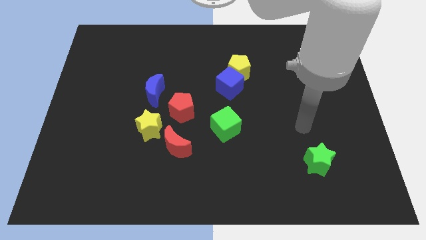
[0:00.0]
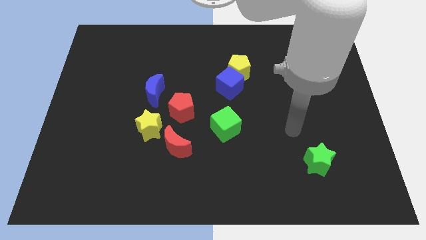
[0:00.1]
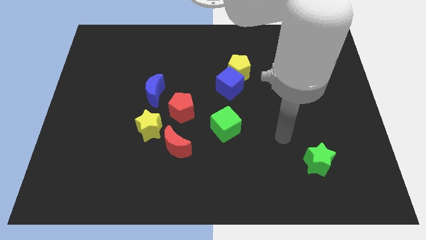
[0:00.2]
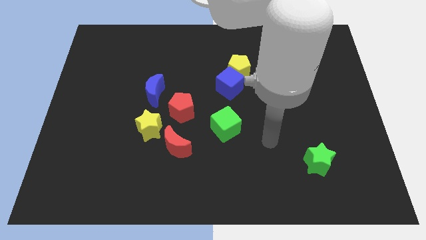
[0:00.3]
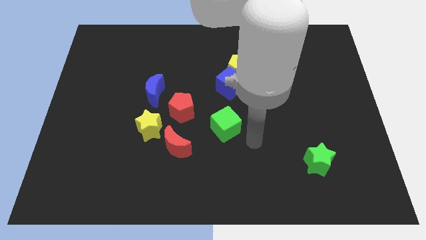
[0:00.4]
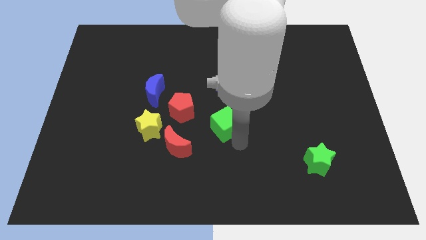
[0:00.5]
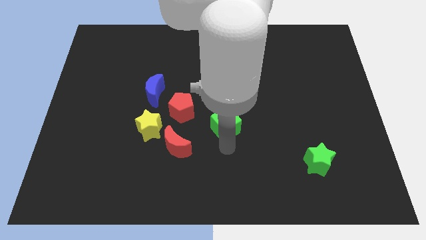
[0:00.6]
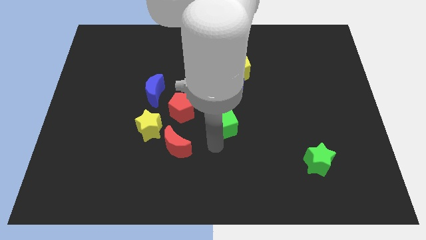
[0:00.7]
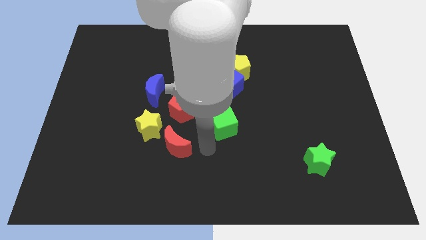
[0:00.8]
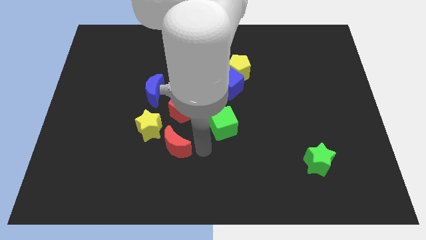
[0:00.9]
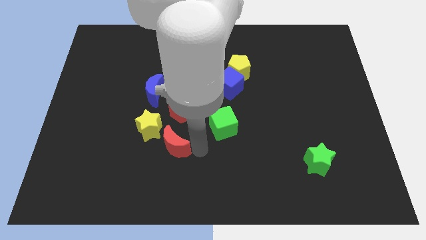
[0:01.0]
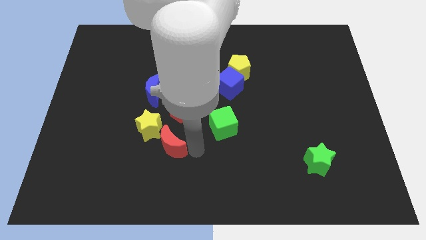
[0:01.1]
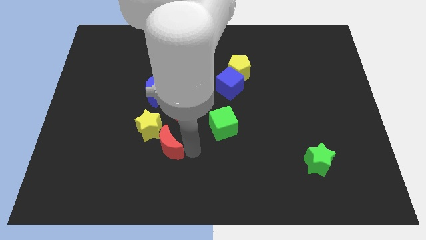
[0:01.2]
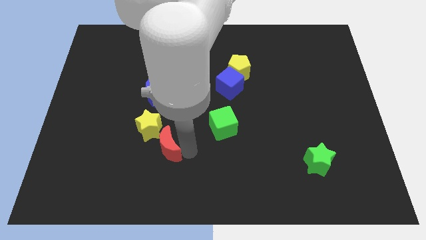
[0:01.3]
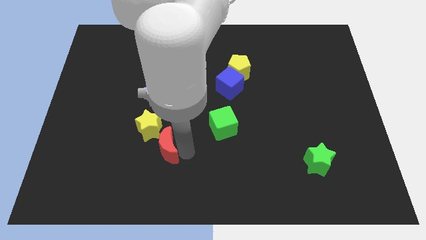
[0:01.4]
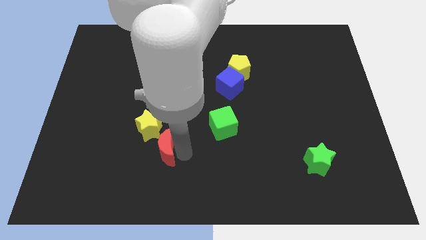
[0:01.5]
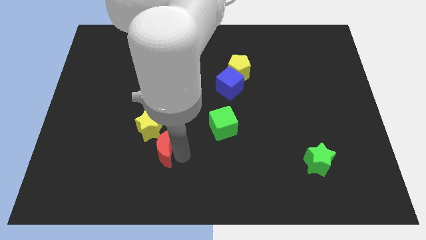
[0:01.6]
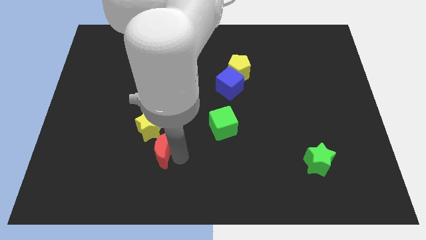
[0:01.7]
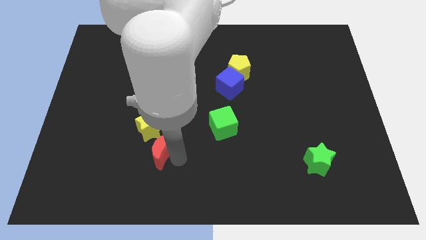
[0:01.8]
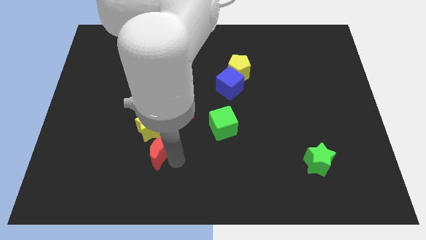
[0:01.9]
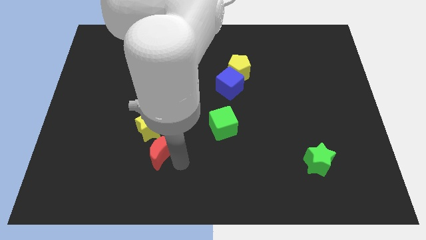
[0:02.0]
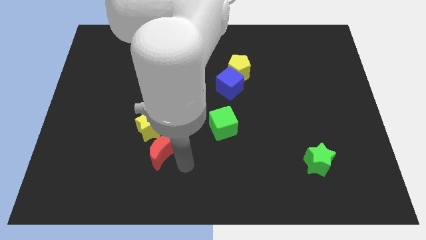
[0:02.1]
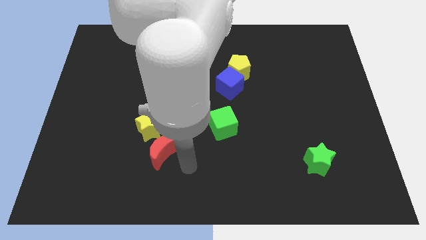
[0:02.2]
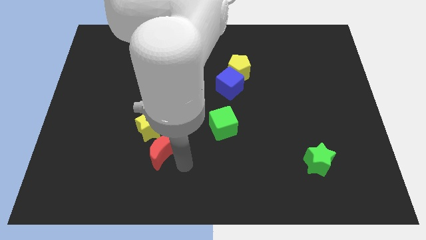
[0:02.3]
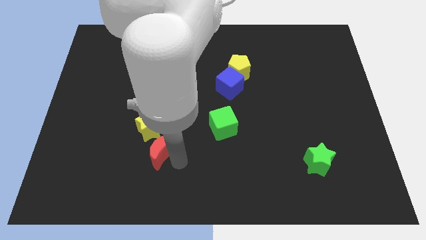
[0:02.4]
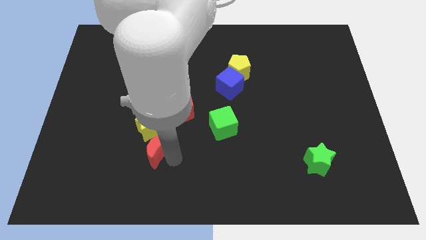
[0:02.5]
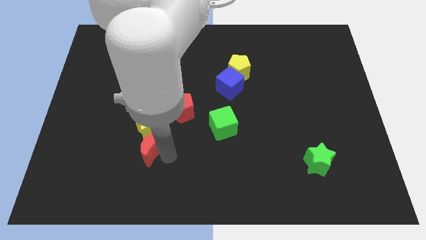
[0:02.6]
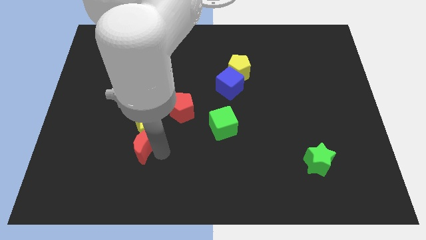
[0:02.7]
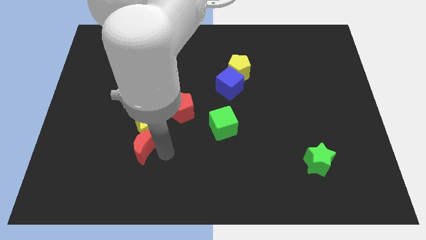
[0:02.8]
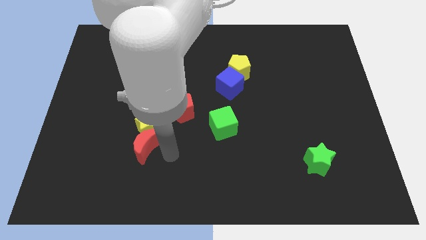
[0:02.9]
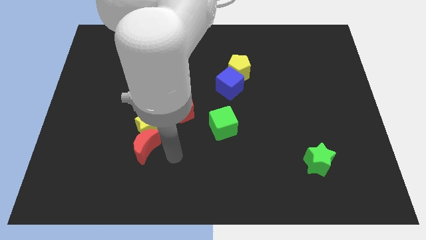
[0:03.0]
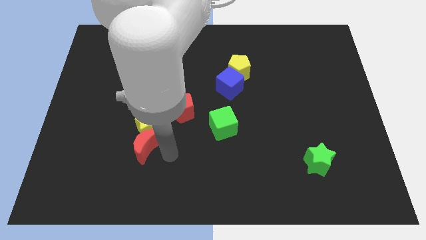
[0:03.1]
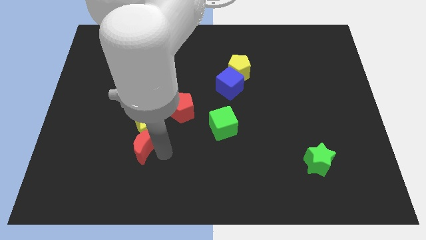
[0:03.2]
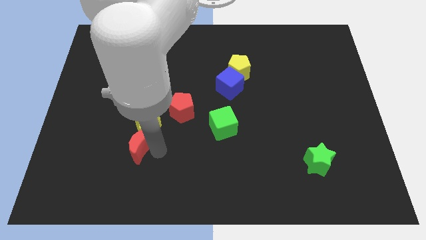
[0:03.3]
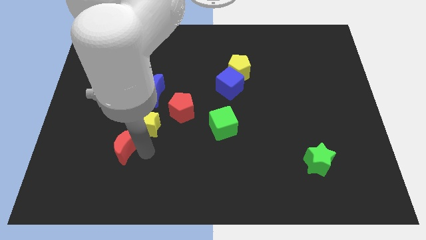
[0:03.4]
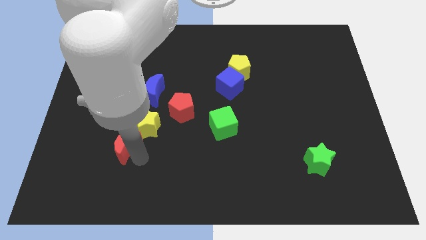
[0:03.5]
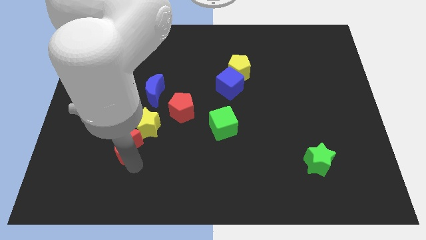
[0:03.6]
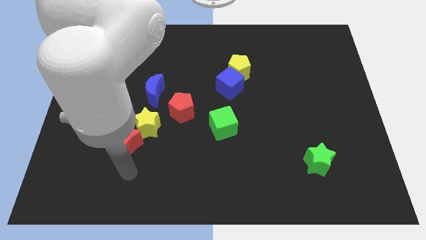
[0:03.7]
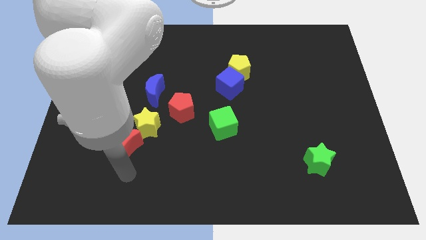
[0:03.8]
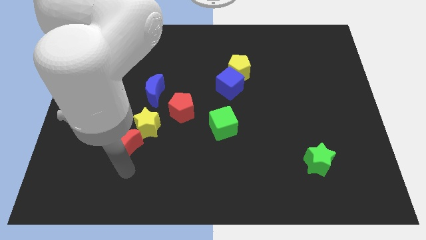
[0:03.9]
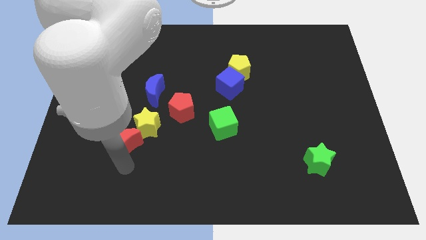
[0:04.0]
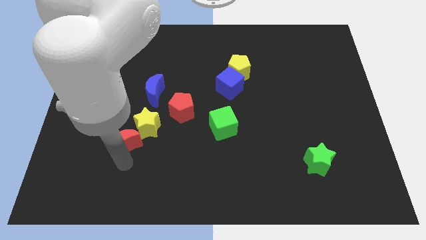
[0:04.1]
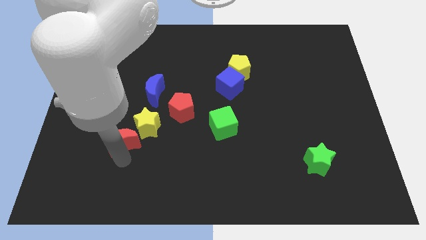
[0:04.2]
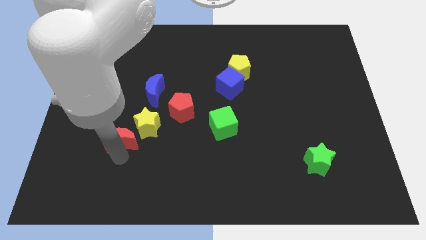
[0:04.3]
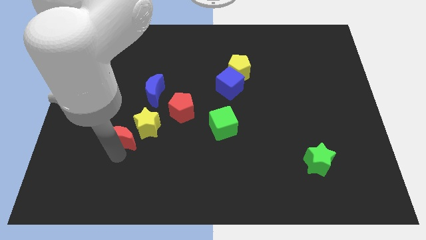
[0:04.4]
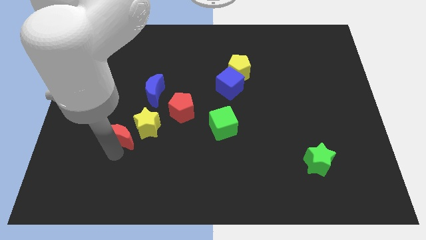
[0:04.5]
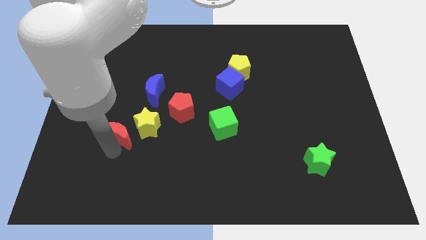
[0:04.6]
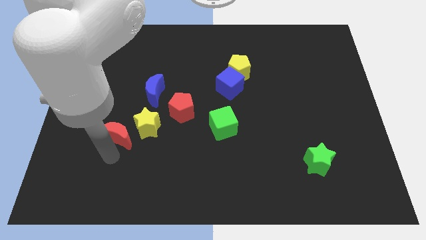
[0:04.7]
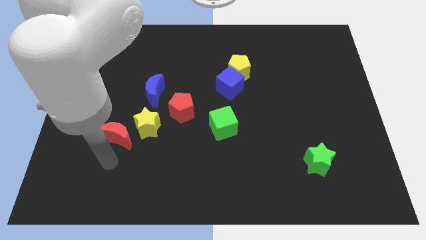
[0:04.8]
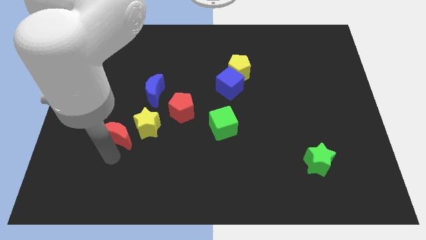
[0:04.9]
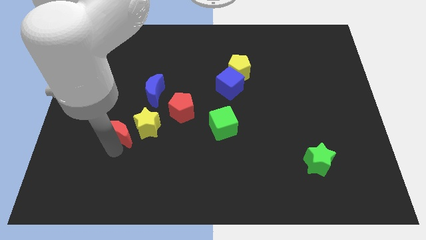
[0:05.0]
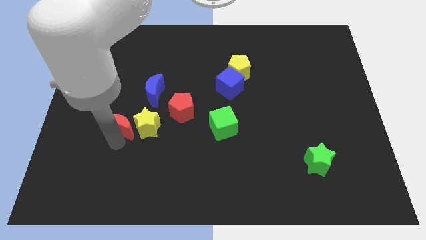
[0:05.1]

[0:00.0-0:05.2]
push the red moon diagonally down and to the left of the blue moon

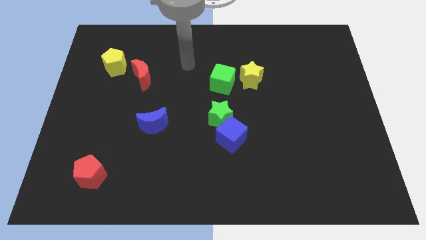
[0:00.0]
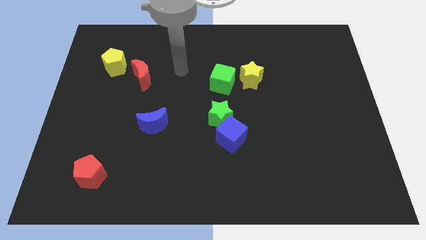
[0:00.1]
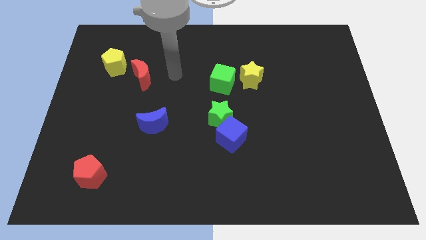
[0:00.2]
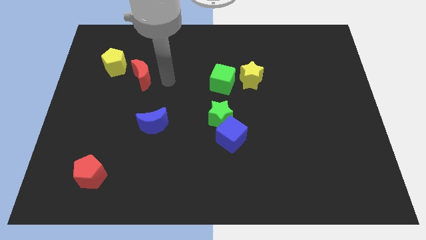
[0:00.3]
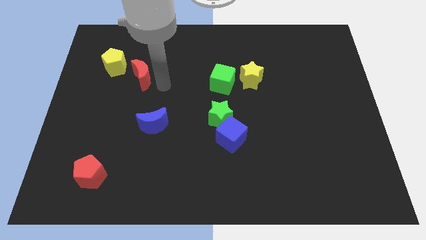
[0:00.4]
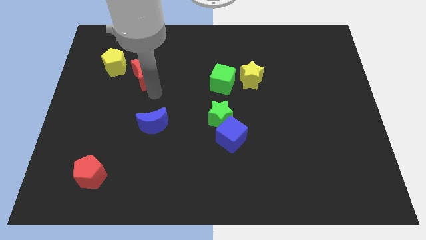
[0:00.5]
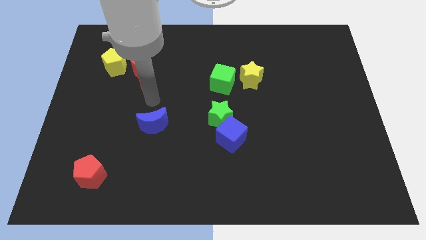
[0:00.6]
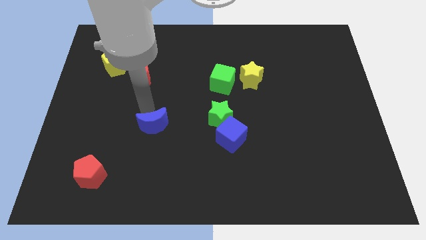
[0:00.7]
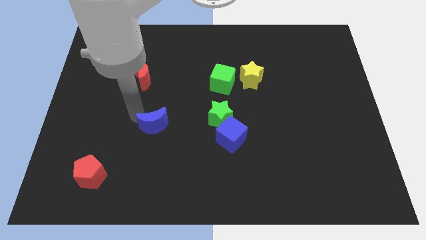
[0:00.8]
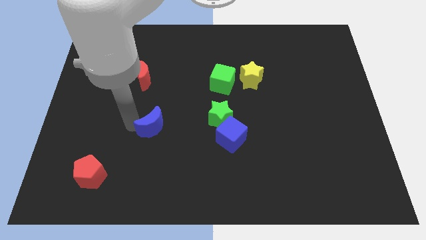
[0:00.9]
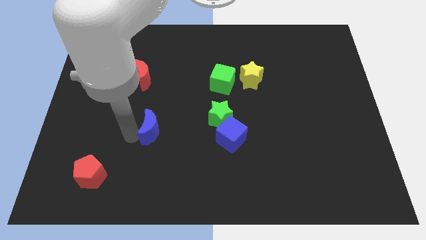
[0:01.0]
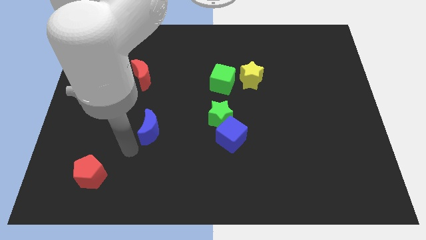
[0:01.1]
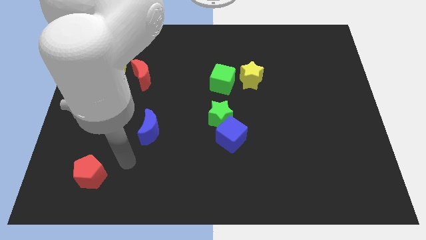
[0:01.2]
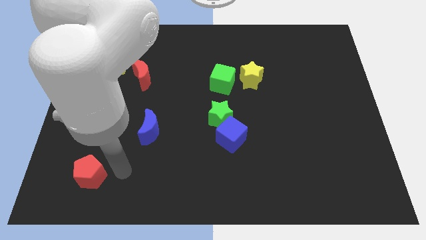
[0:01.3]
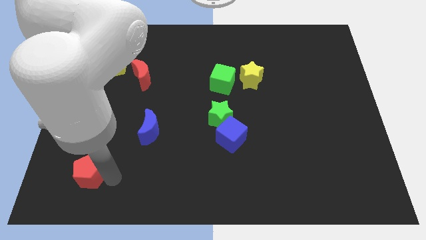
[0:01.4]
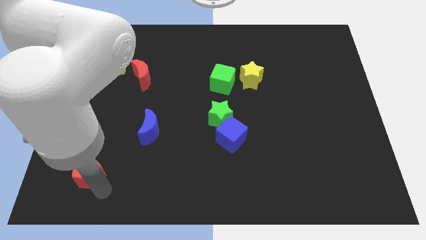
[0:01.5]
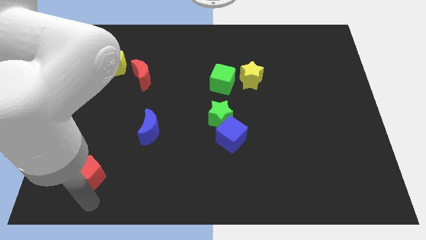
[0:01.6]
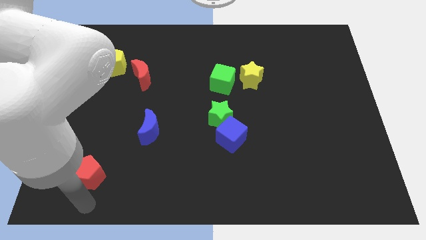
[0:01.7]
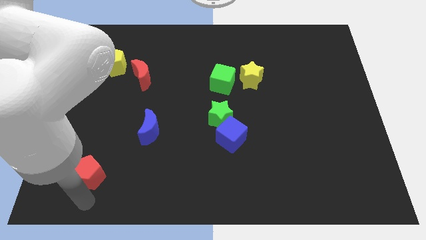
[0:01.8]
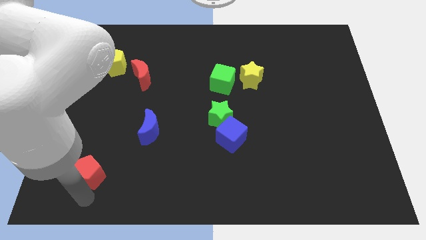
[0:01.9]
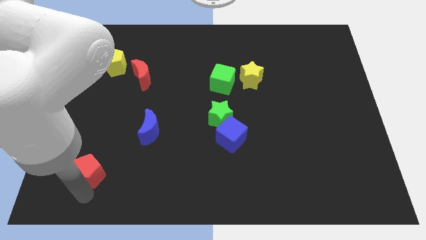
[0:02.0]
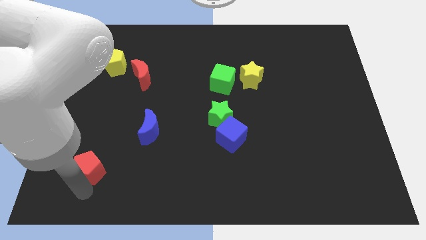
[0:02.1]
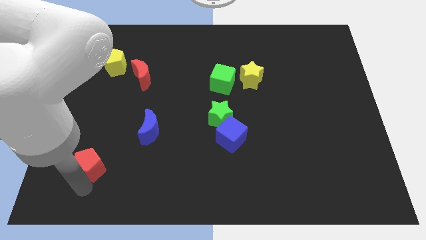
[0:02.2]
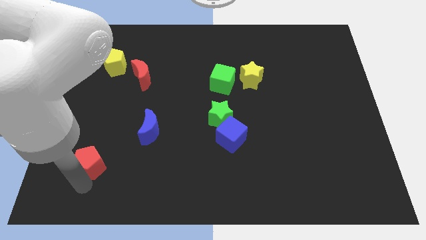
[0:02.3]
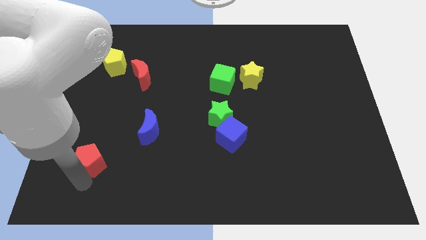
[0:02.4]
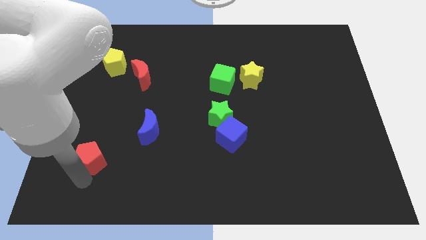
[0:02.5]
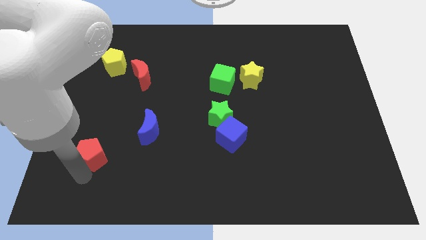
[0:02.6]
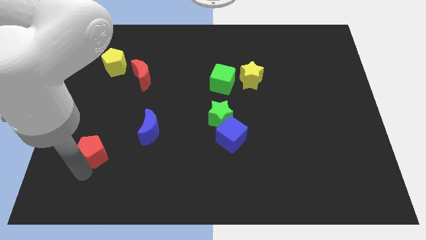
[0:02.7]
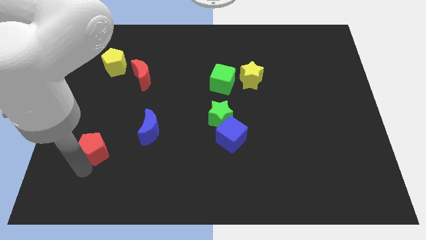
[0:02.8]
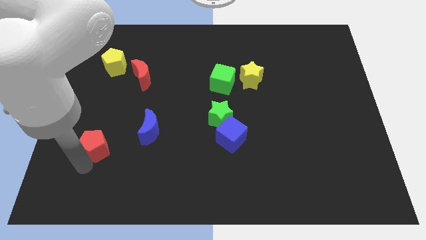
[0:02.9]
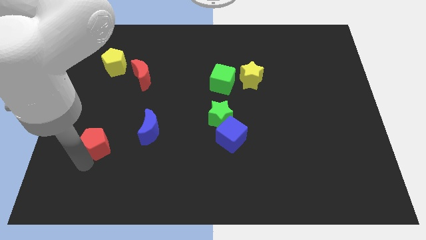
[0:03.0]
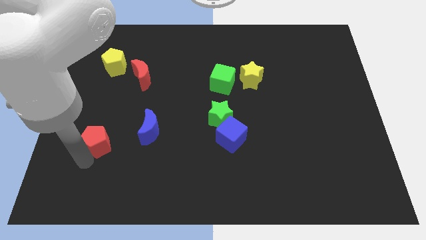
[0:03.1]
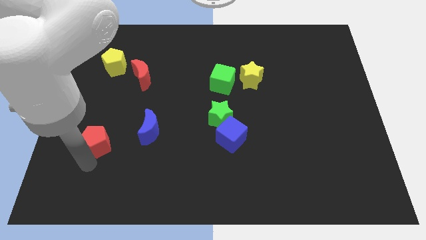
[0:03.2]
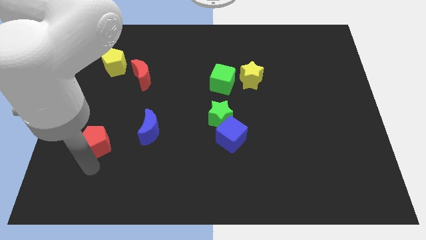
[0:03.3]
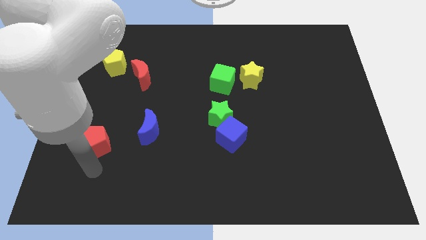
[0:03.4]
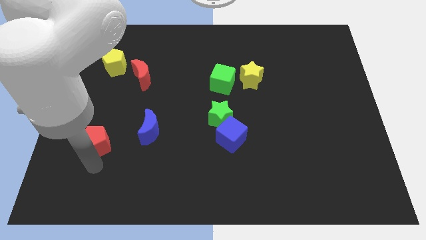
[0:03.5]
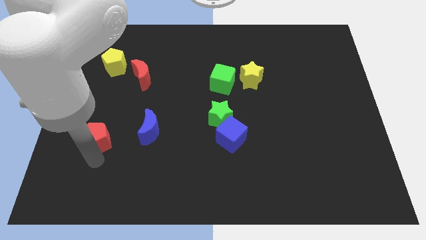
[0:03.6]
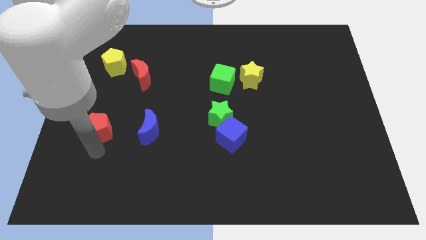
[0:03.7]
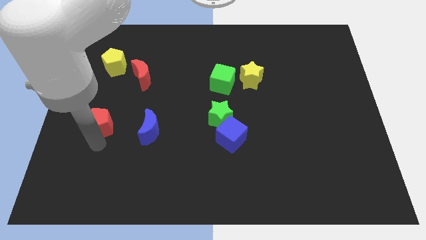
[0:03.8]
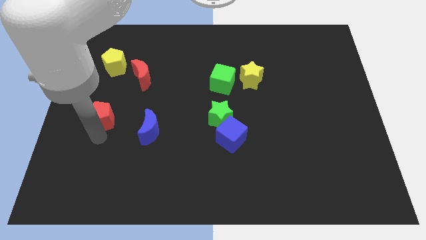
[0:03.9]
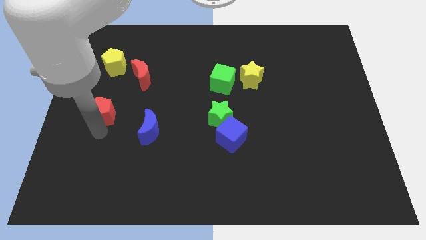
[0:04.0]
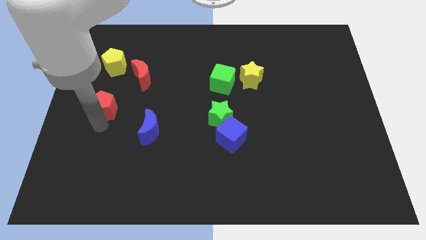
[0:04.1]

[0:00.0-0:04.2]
push the red pentagon to the bottom left side of the red moon
